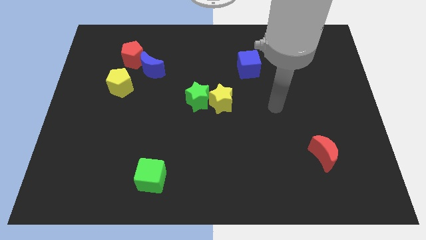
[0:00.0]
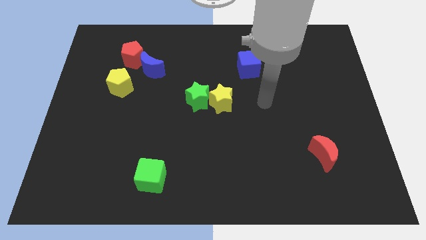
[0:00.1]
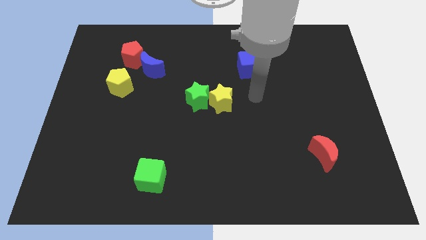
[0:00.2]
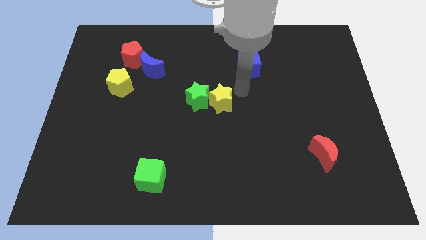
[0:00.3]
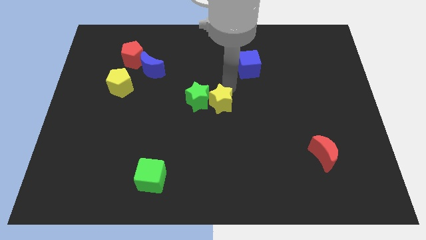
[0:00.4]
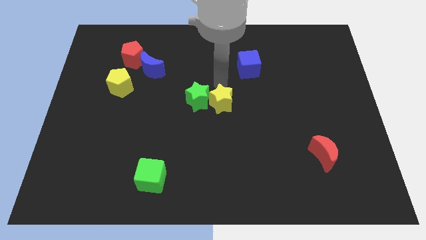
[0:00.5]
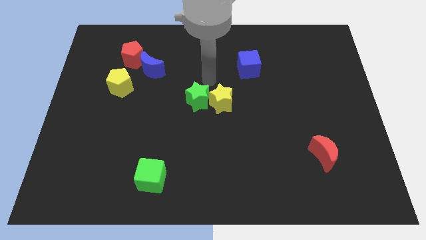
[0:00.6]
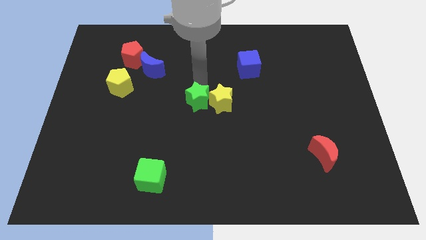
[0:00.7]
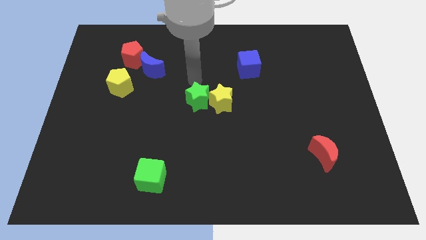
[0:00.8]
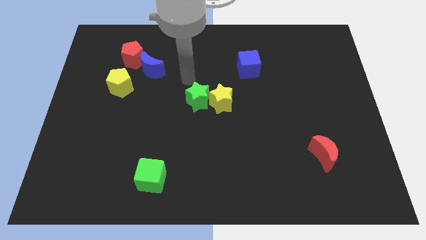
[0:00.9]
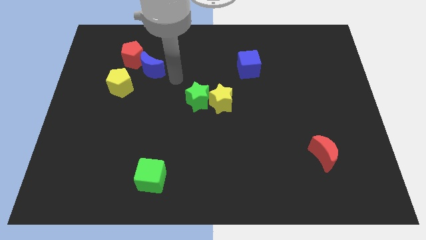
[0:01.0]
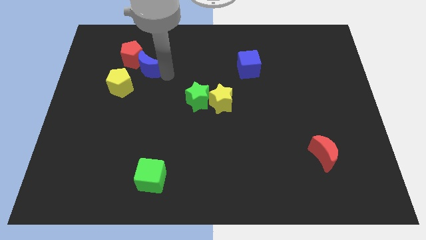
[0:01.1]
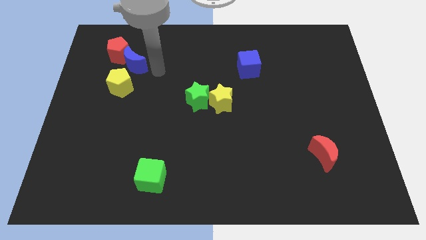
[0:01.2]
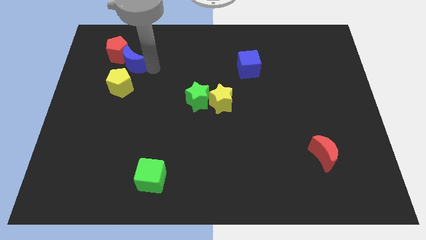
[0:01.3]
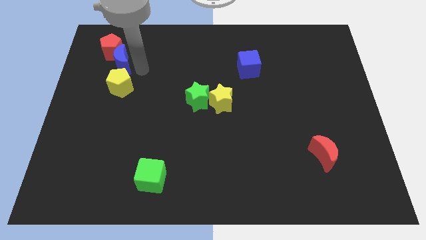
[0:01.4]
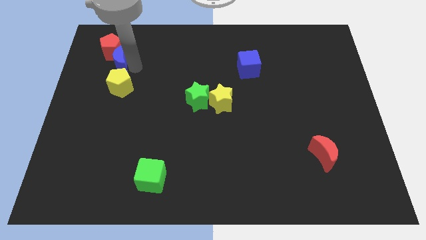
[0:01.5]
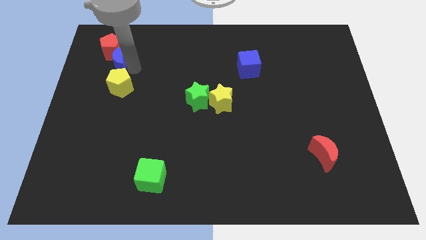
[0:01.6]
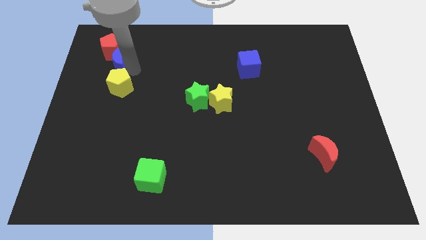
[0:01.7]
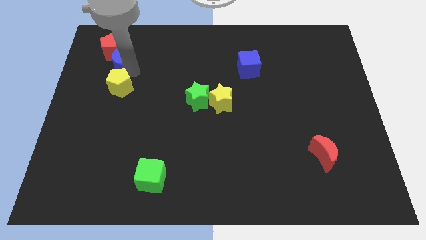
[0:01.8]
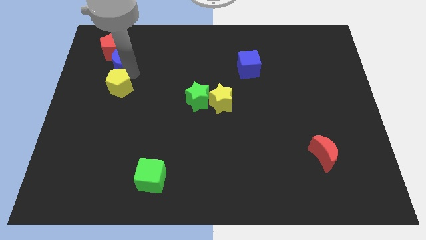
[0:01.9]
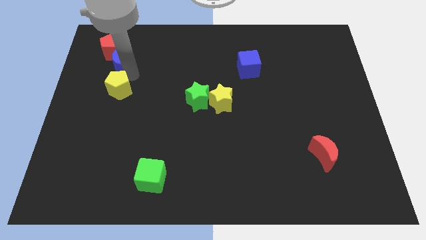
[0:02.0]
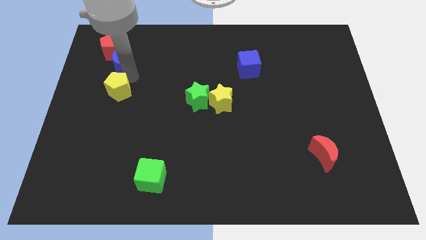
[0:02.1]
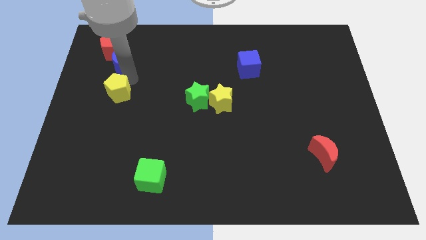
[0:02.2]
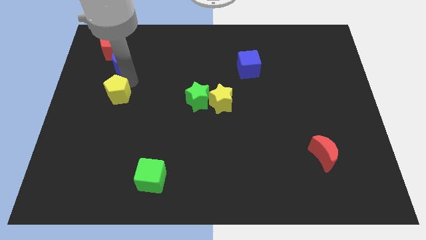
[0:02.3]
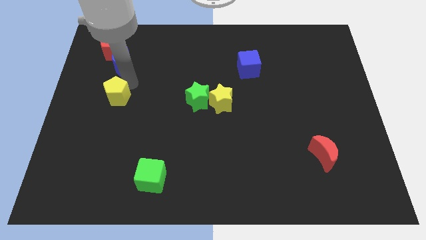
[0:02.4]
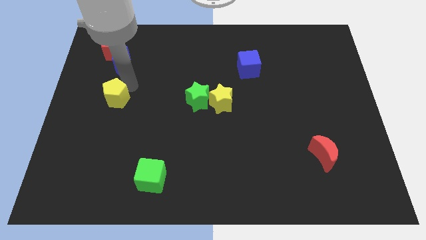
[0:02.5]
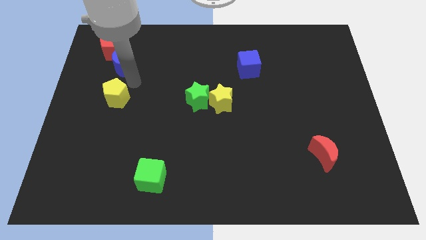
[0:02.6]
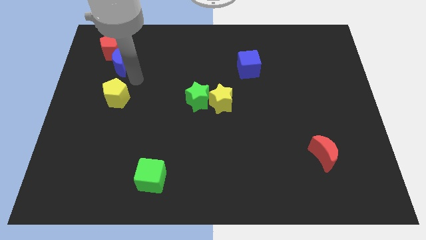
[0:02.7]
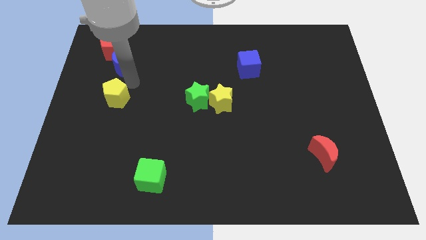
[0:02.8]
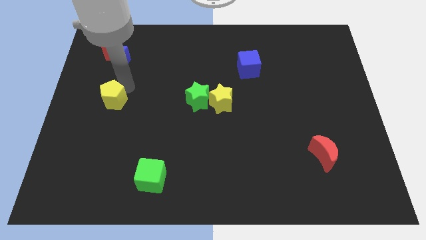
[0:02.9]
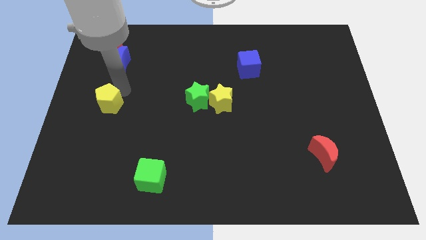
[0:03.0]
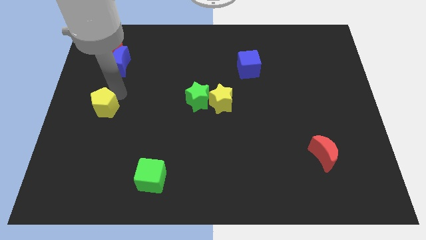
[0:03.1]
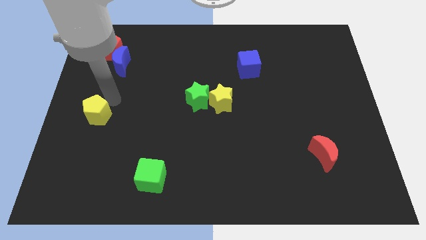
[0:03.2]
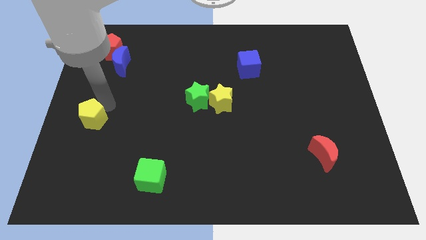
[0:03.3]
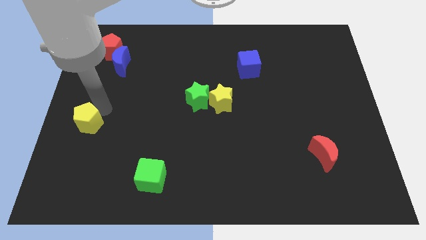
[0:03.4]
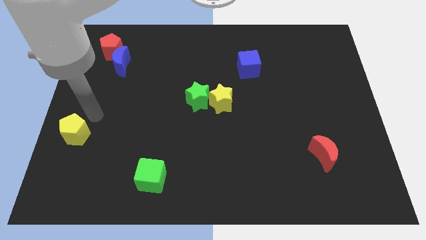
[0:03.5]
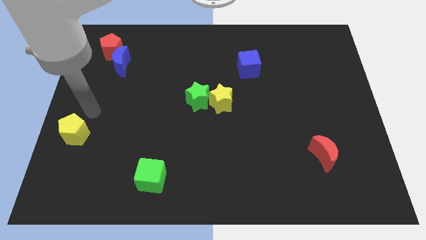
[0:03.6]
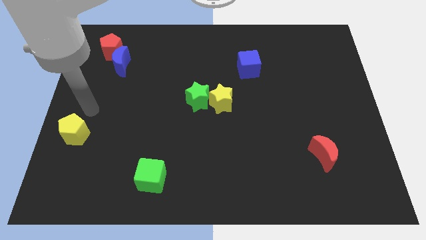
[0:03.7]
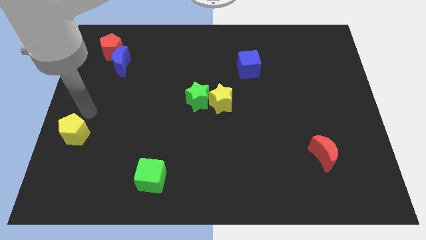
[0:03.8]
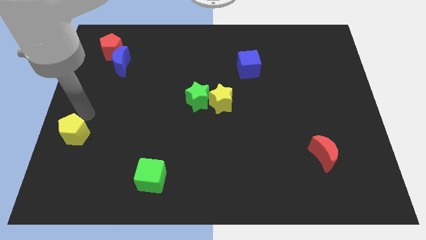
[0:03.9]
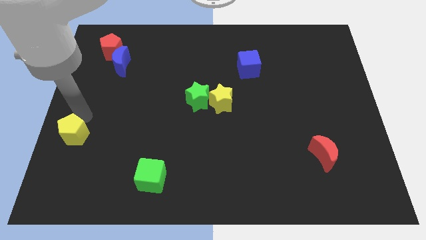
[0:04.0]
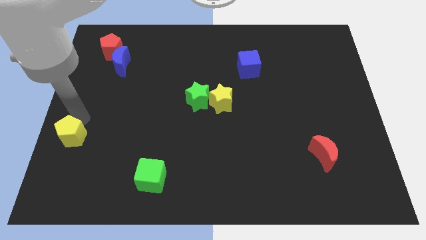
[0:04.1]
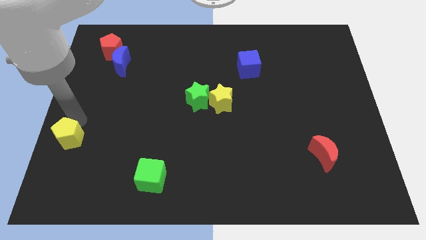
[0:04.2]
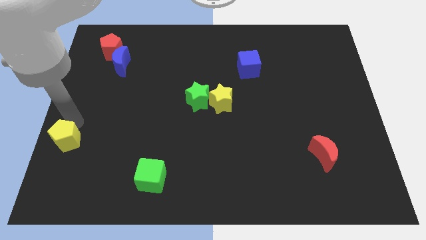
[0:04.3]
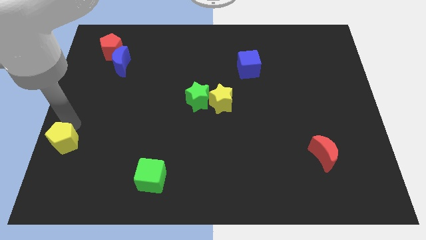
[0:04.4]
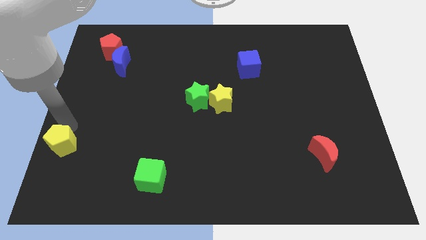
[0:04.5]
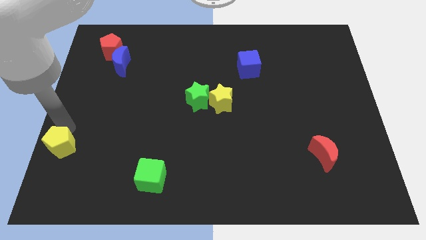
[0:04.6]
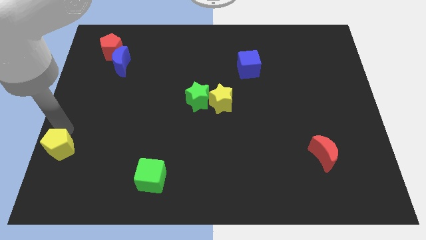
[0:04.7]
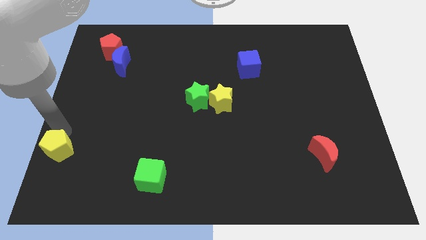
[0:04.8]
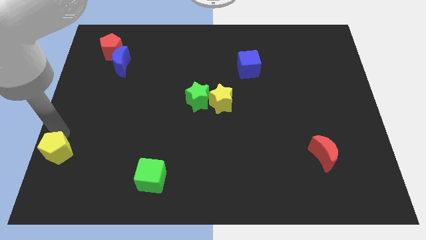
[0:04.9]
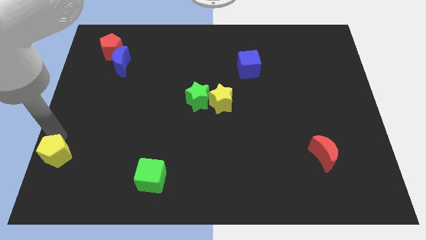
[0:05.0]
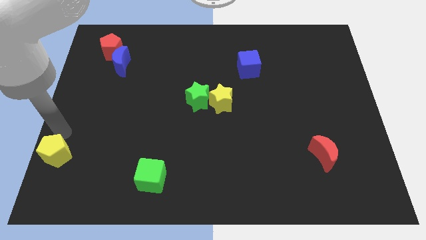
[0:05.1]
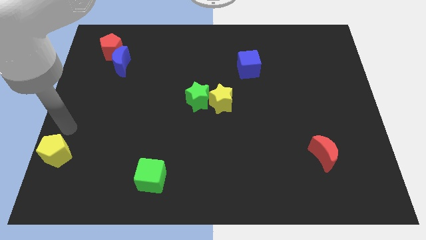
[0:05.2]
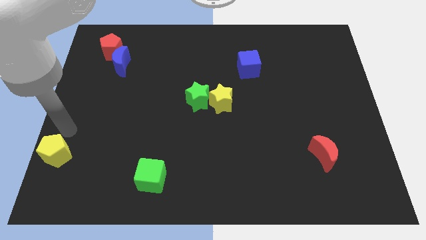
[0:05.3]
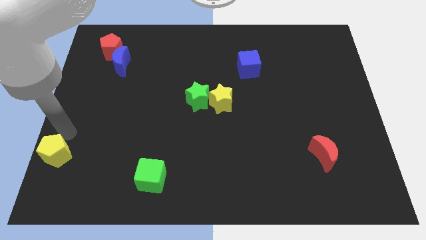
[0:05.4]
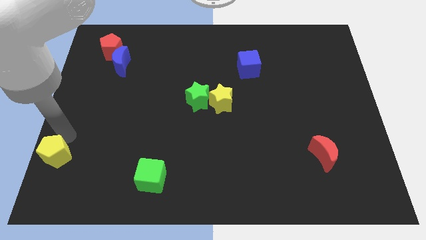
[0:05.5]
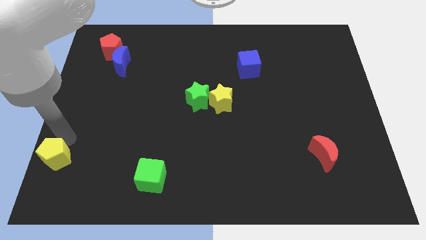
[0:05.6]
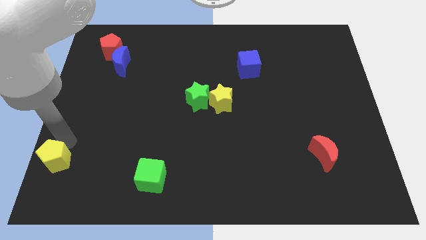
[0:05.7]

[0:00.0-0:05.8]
put the yellow pentagon to the bottom left of the board

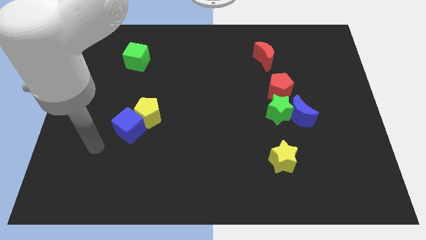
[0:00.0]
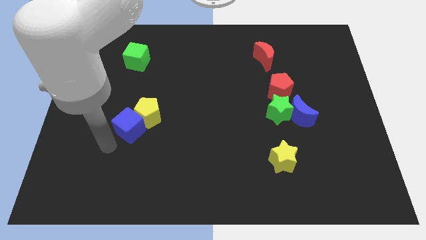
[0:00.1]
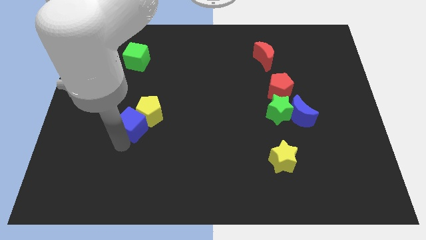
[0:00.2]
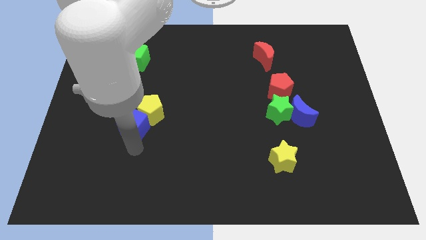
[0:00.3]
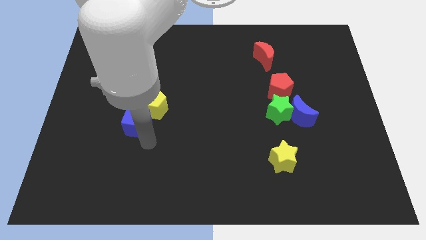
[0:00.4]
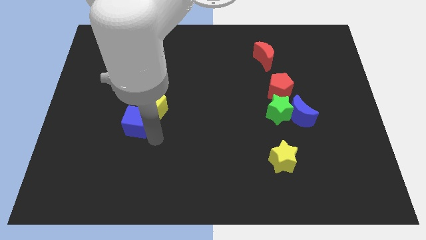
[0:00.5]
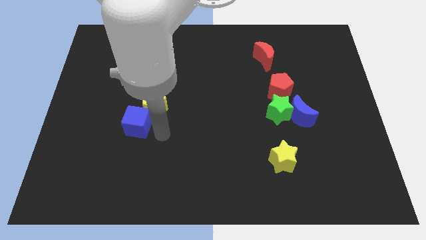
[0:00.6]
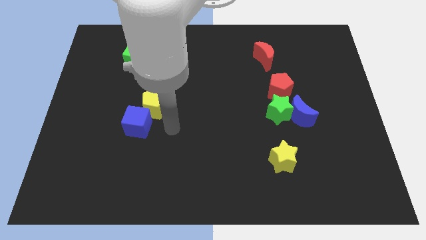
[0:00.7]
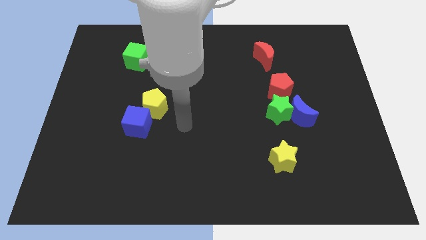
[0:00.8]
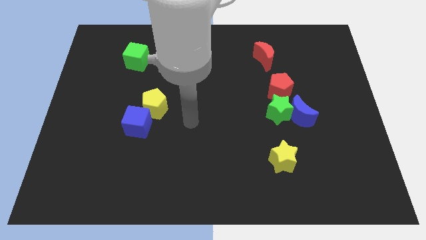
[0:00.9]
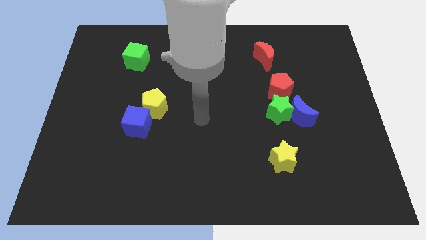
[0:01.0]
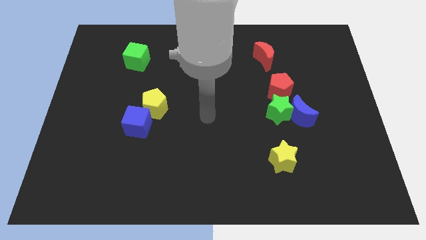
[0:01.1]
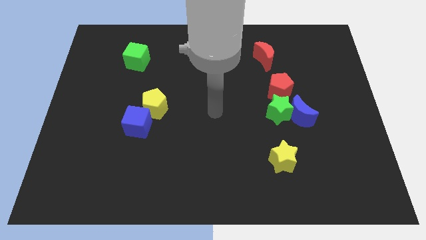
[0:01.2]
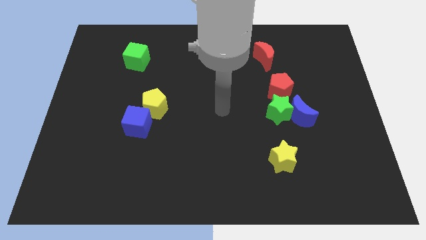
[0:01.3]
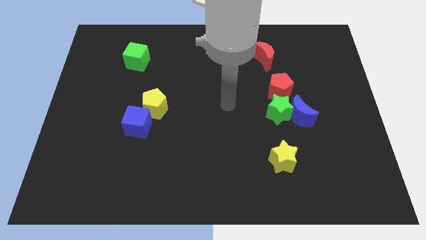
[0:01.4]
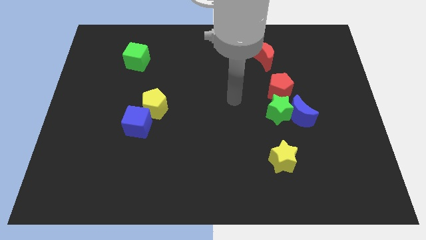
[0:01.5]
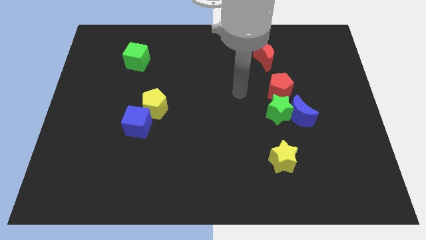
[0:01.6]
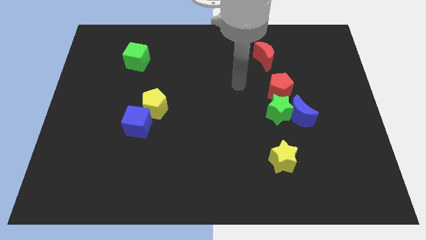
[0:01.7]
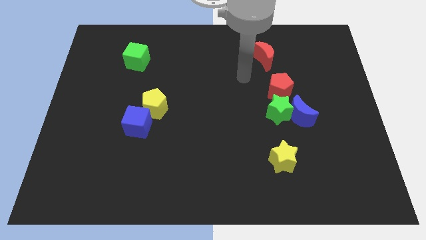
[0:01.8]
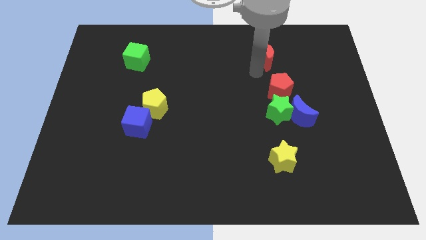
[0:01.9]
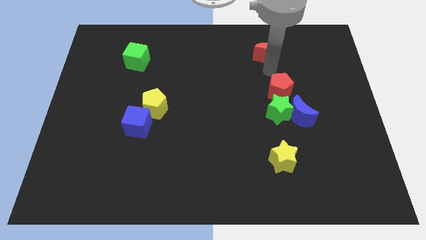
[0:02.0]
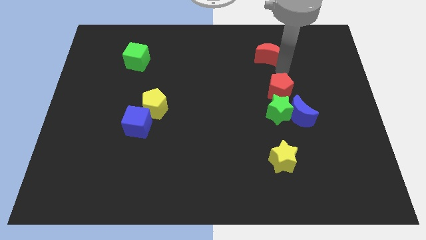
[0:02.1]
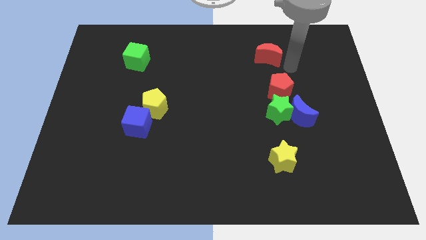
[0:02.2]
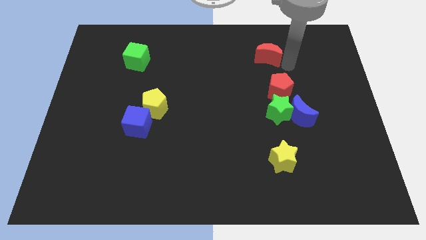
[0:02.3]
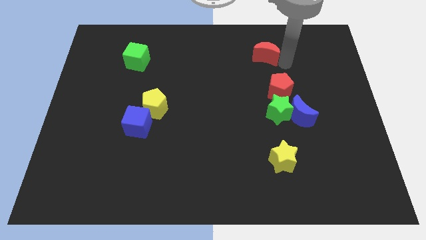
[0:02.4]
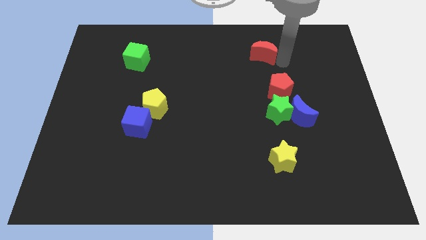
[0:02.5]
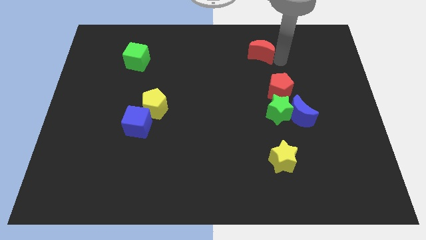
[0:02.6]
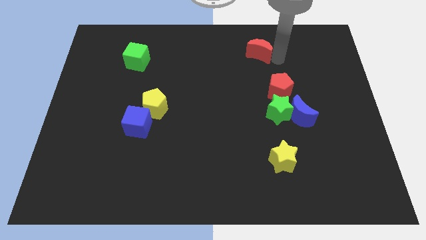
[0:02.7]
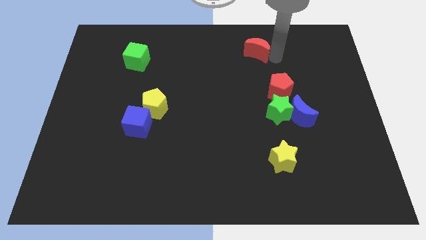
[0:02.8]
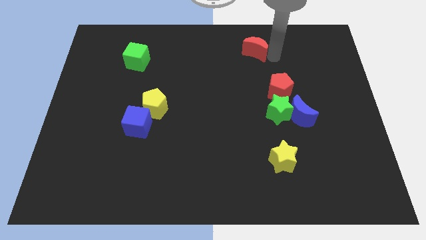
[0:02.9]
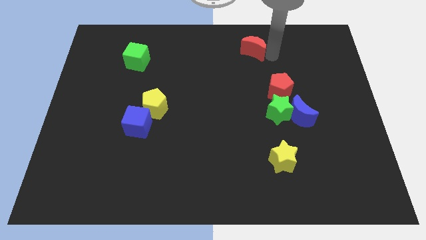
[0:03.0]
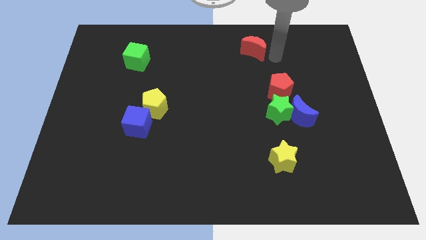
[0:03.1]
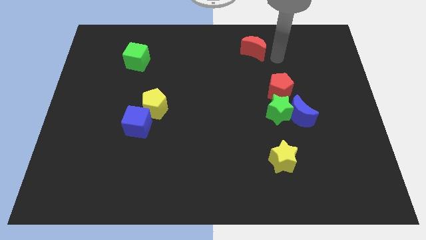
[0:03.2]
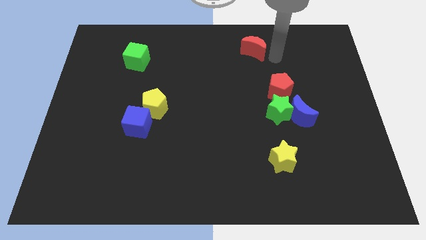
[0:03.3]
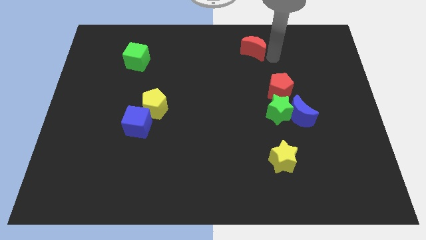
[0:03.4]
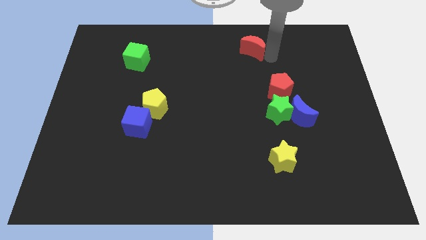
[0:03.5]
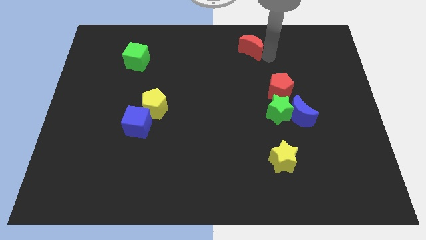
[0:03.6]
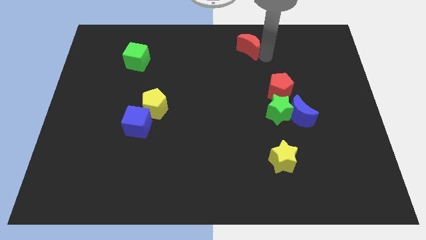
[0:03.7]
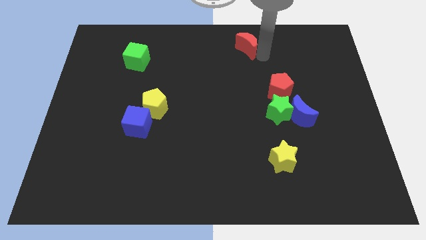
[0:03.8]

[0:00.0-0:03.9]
push the red moon to the top side
